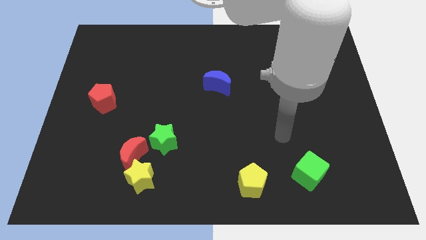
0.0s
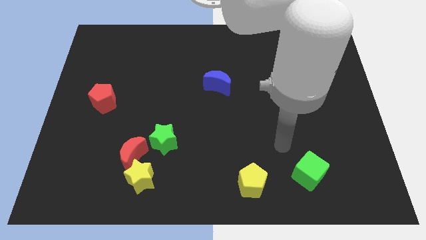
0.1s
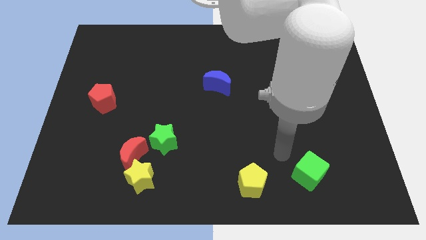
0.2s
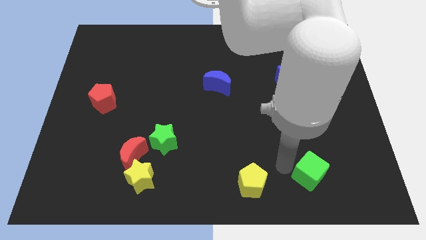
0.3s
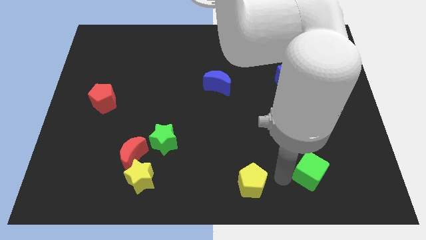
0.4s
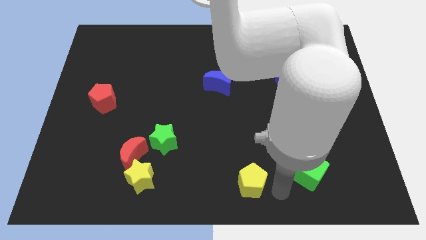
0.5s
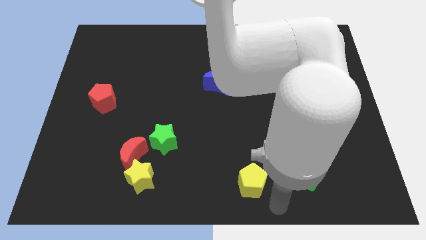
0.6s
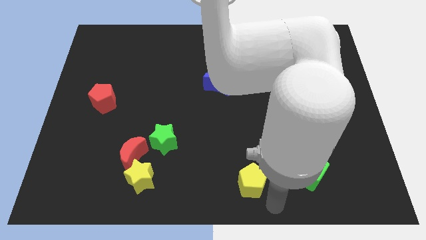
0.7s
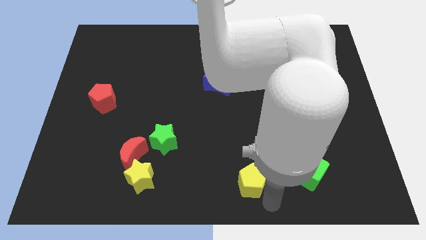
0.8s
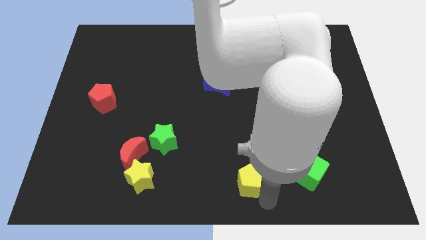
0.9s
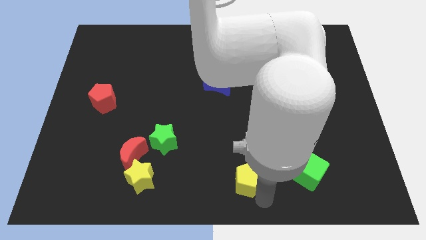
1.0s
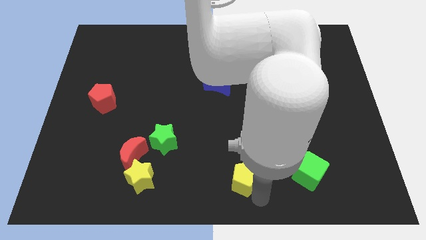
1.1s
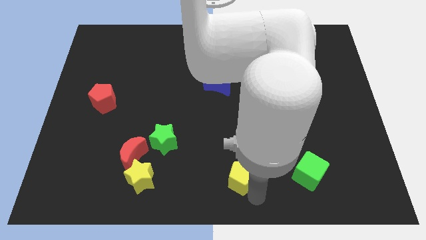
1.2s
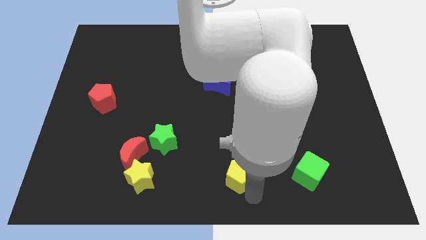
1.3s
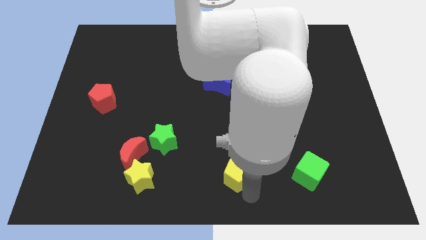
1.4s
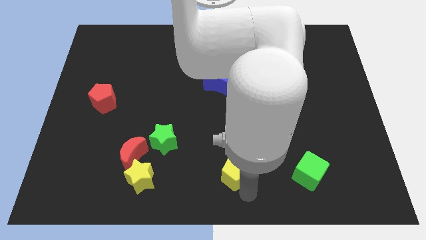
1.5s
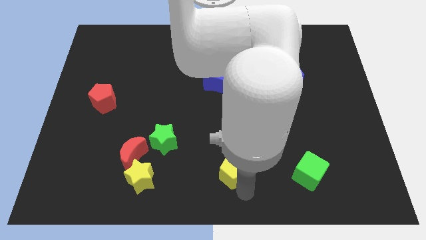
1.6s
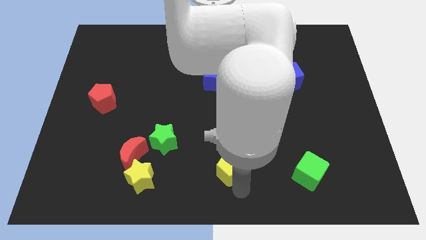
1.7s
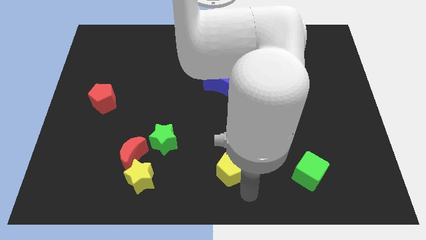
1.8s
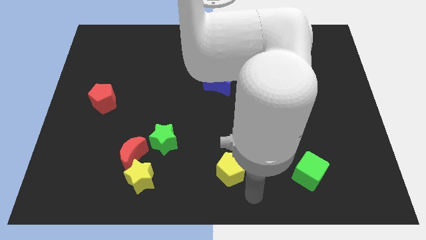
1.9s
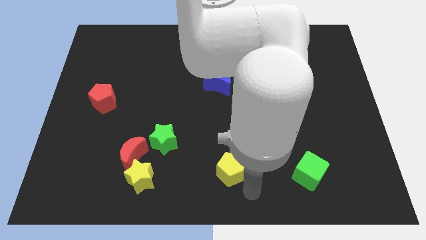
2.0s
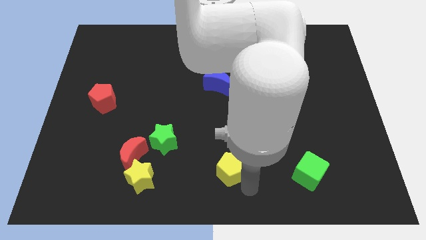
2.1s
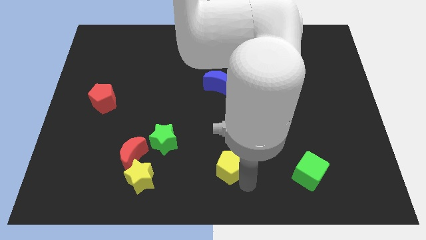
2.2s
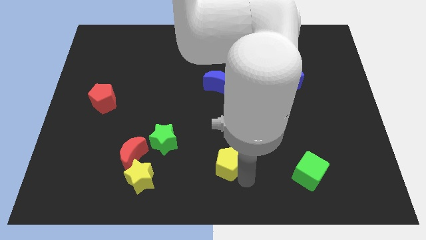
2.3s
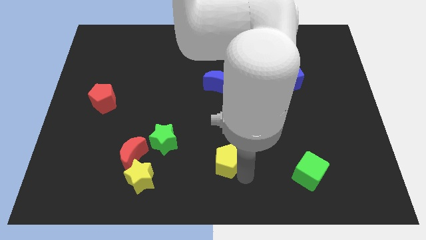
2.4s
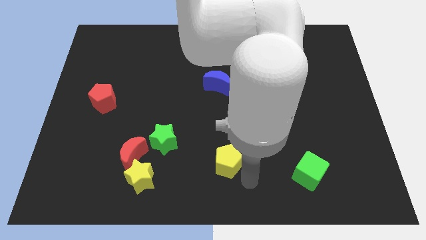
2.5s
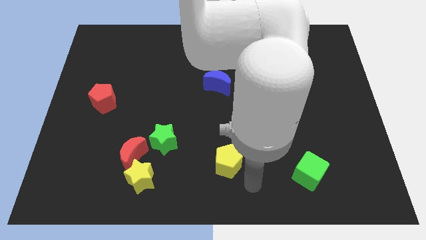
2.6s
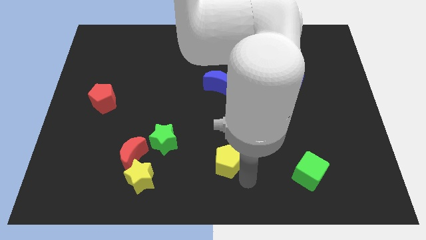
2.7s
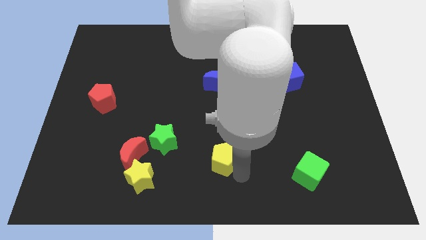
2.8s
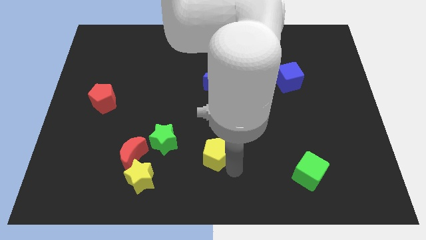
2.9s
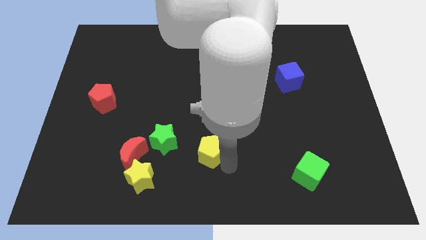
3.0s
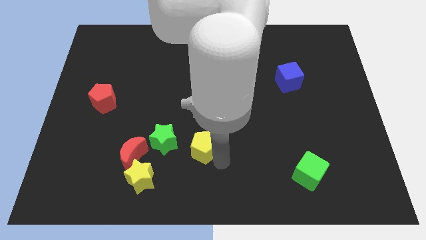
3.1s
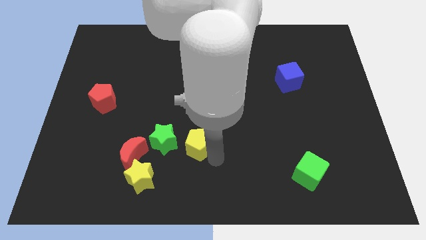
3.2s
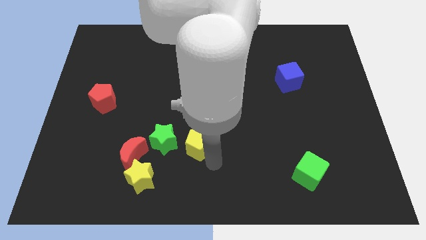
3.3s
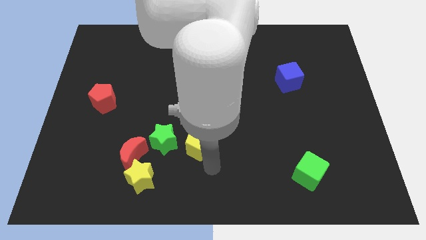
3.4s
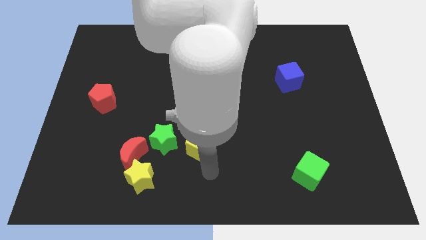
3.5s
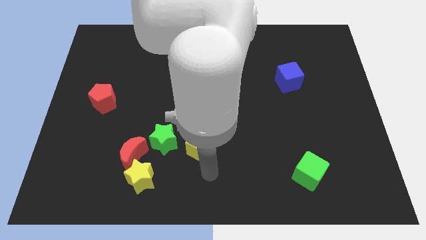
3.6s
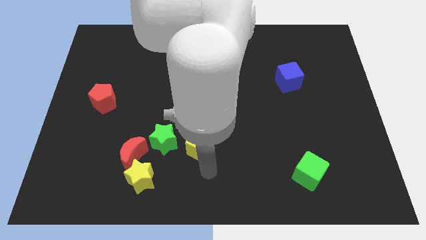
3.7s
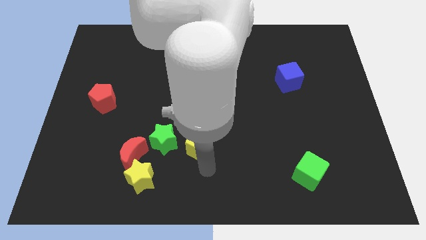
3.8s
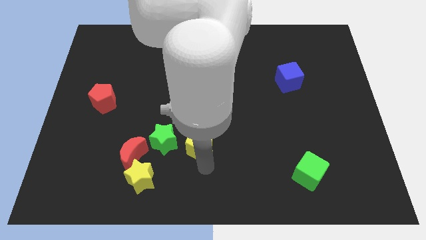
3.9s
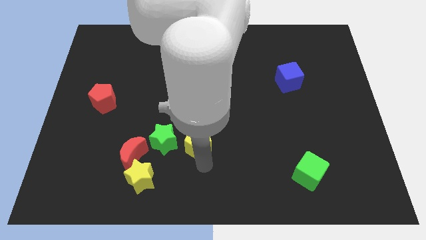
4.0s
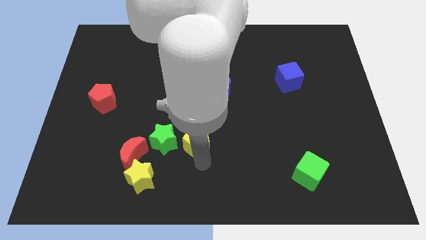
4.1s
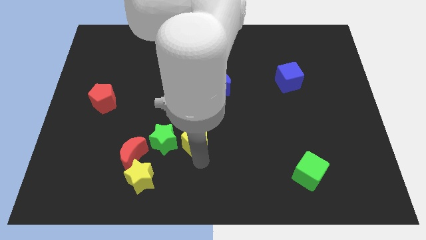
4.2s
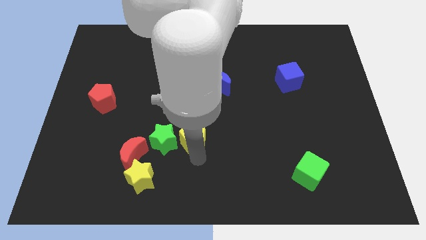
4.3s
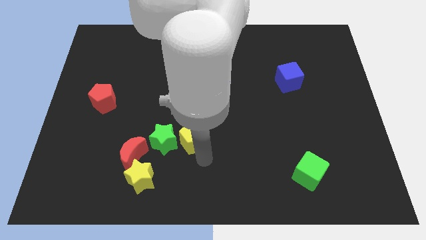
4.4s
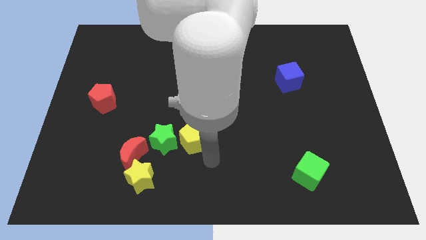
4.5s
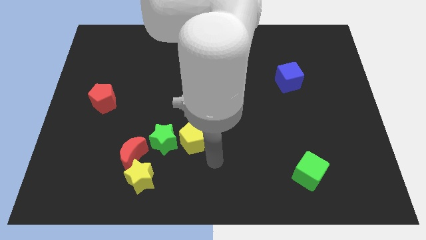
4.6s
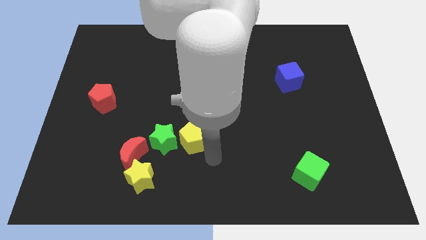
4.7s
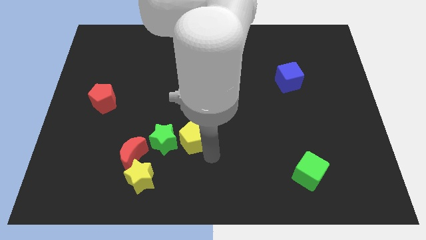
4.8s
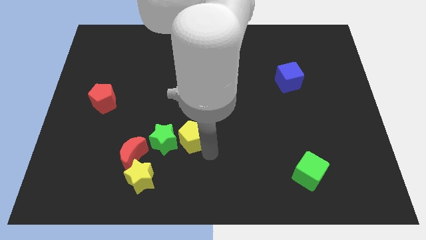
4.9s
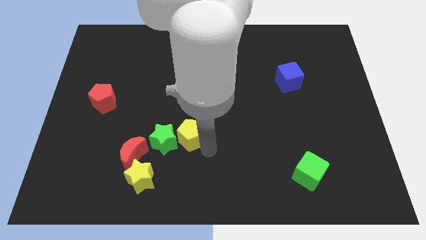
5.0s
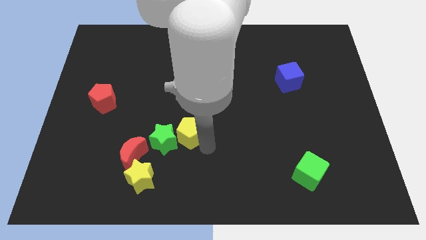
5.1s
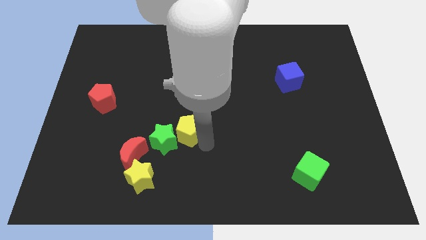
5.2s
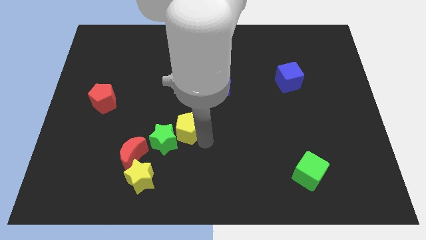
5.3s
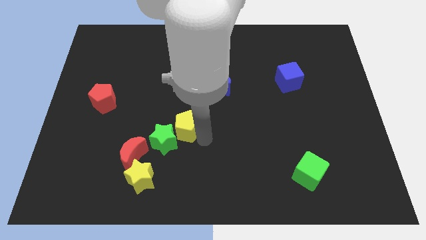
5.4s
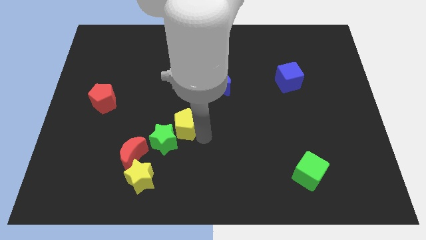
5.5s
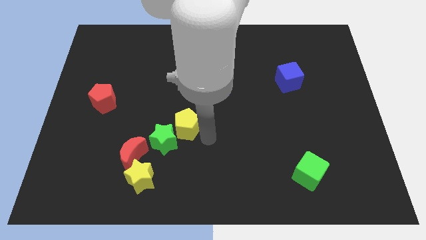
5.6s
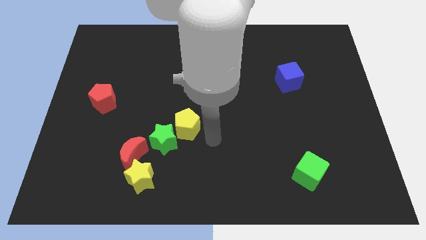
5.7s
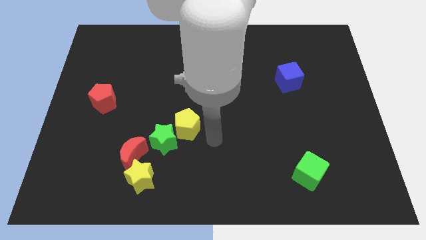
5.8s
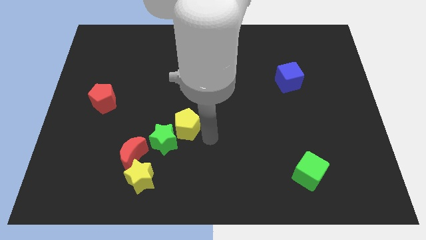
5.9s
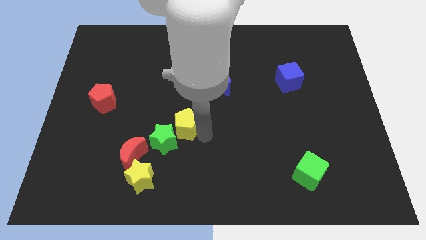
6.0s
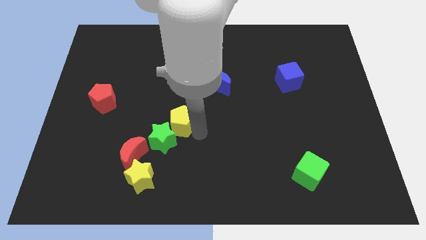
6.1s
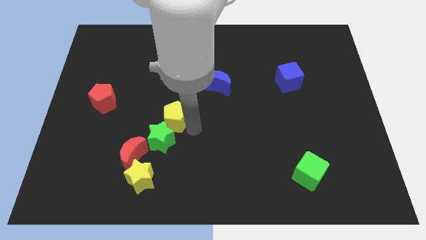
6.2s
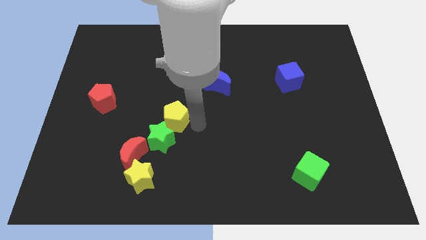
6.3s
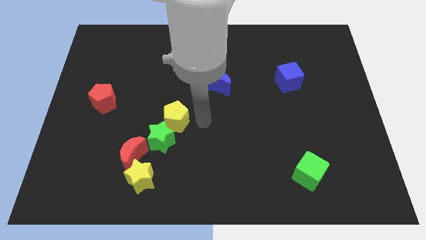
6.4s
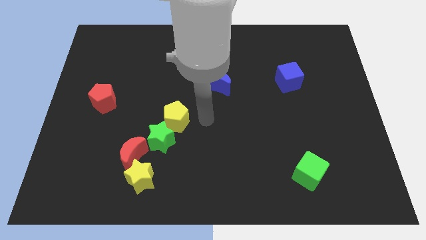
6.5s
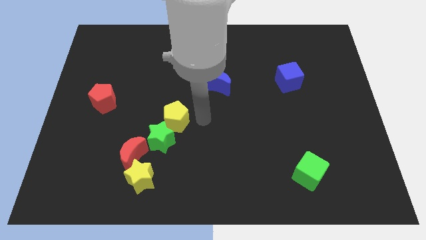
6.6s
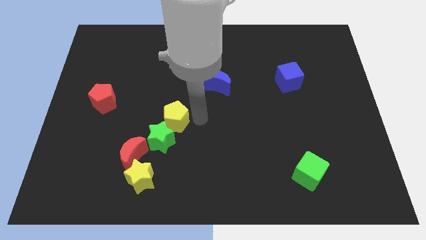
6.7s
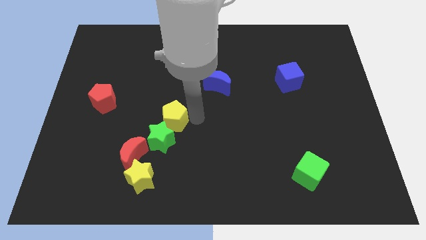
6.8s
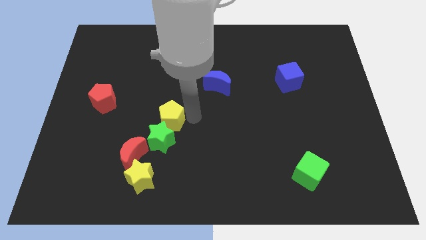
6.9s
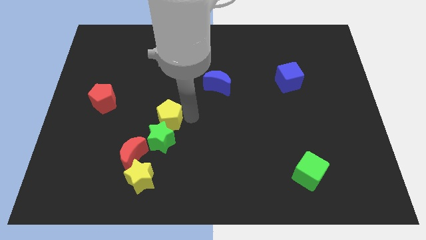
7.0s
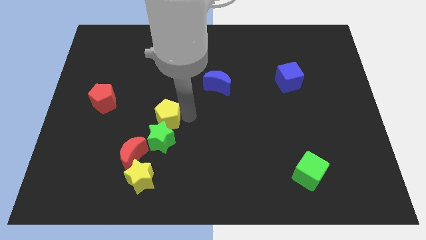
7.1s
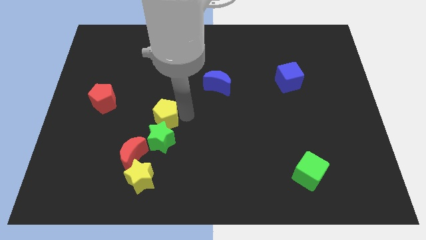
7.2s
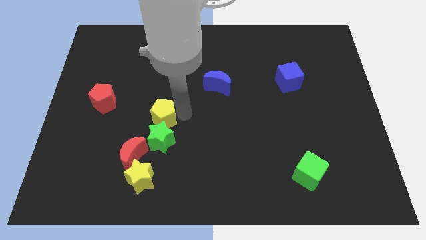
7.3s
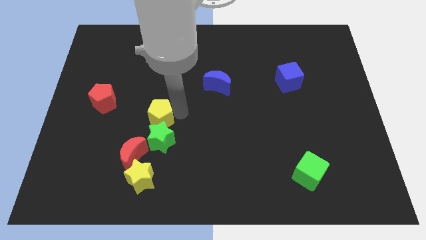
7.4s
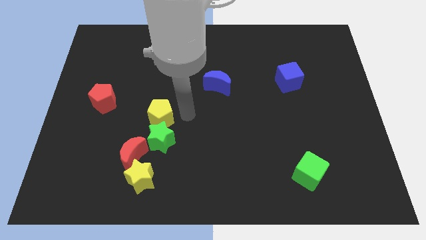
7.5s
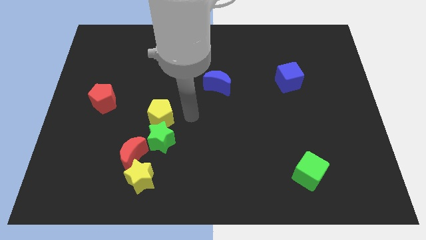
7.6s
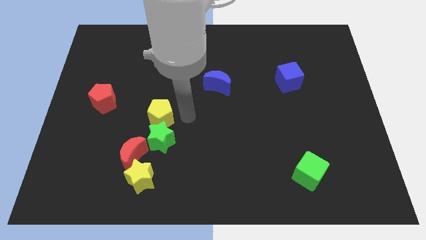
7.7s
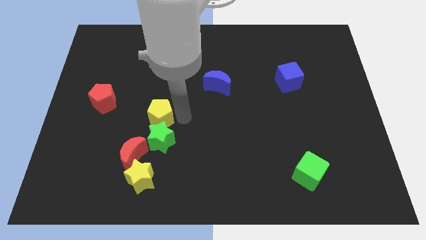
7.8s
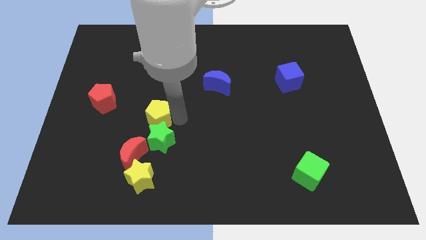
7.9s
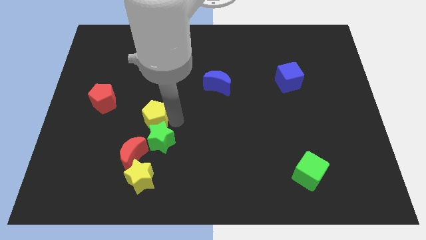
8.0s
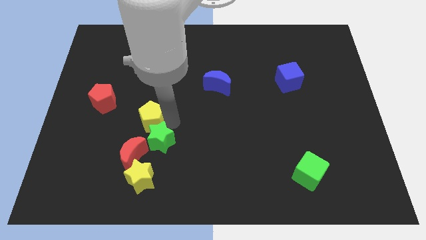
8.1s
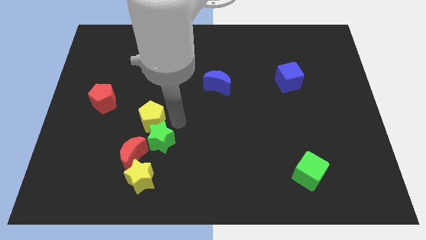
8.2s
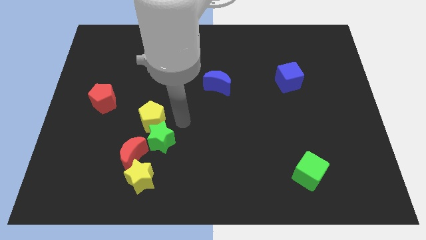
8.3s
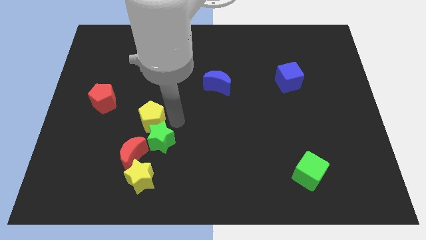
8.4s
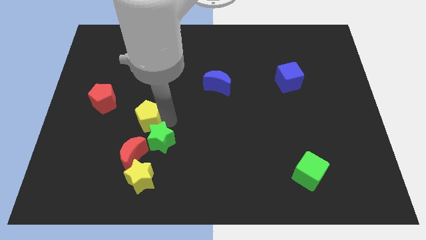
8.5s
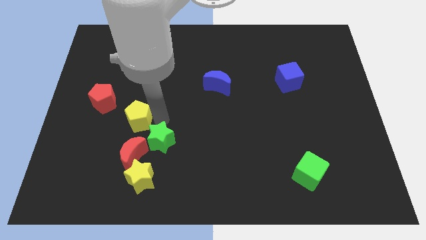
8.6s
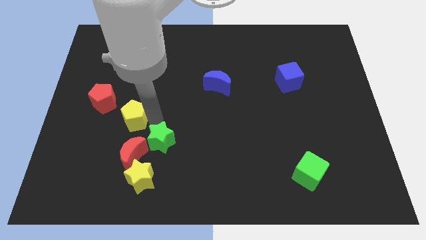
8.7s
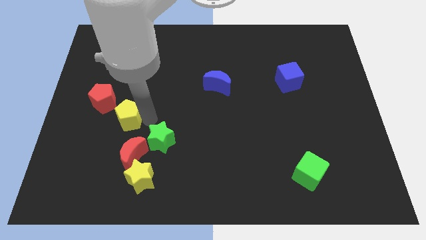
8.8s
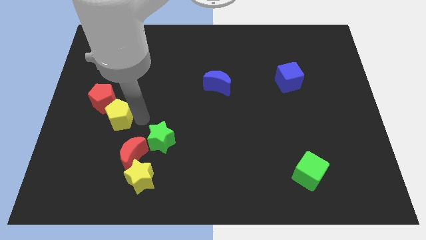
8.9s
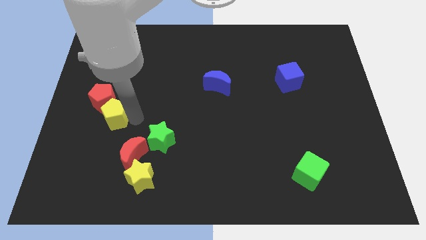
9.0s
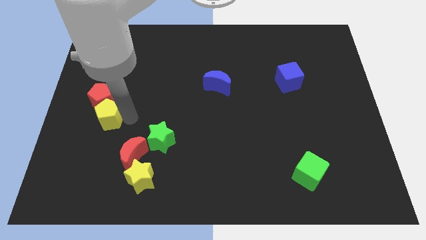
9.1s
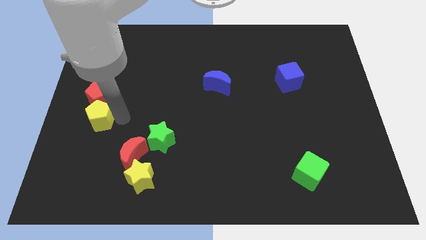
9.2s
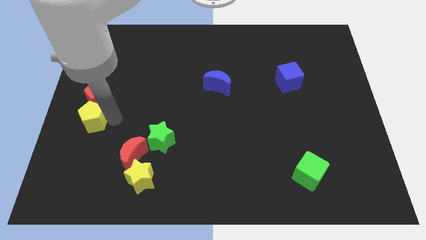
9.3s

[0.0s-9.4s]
slide the yellow pentagon to the left side of the board
